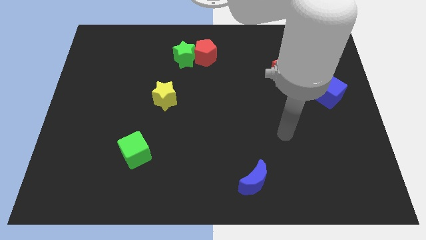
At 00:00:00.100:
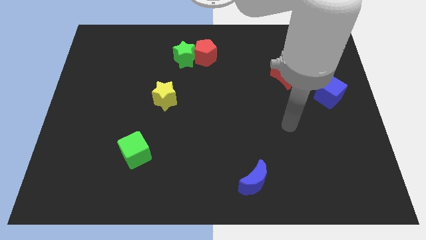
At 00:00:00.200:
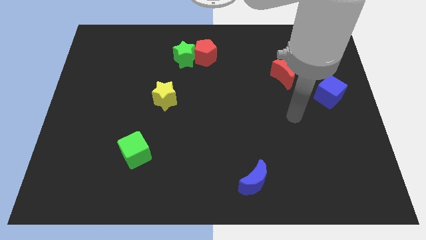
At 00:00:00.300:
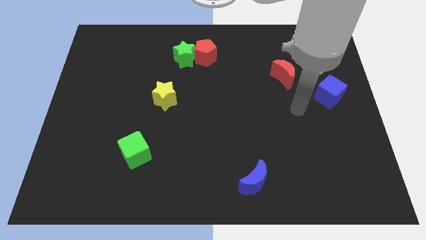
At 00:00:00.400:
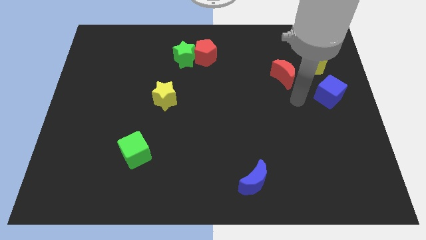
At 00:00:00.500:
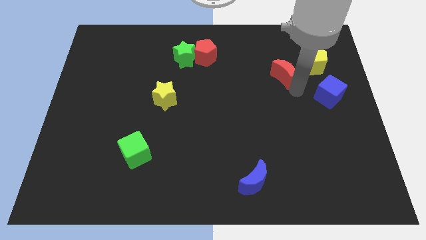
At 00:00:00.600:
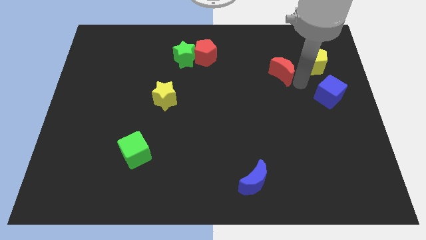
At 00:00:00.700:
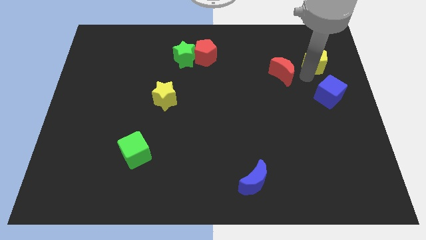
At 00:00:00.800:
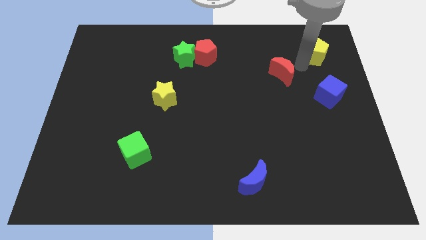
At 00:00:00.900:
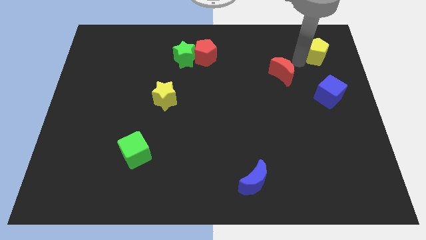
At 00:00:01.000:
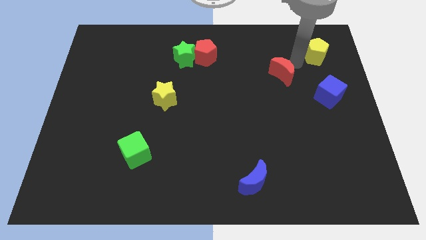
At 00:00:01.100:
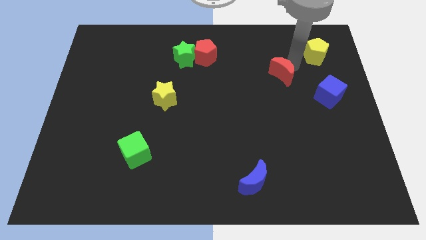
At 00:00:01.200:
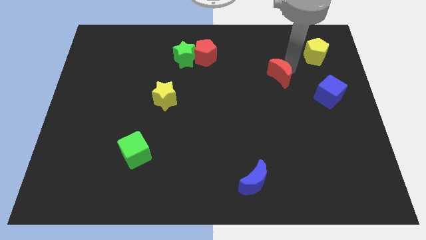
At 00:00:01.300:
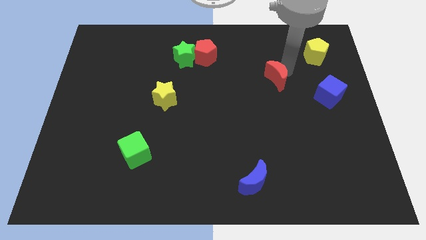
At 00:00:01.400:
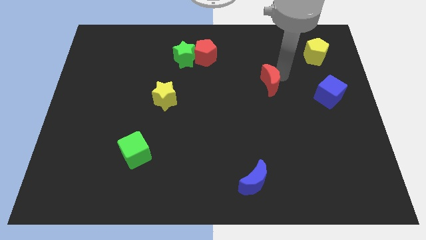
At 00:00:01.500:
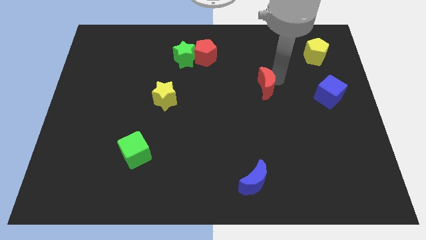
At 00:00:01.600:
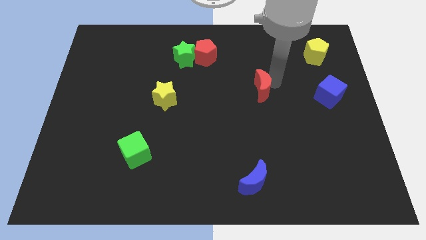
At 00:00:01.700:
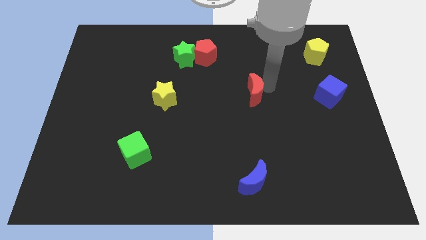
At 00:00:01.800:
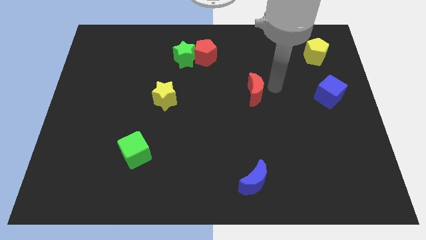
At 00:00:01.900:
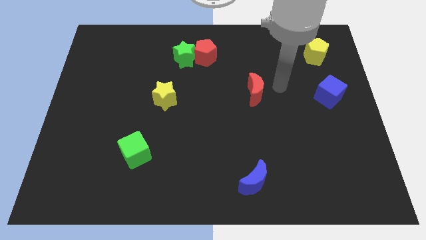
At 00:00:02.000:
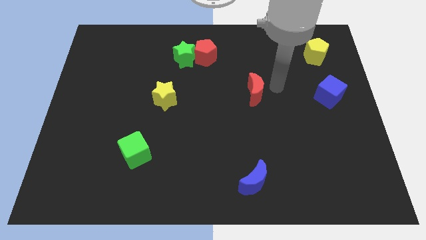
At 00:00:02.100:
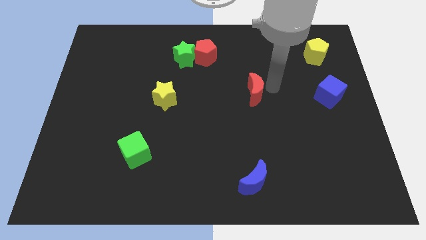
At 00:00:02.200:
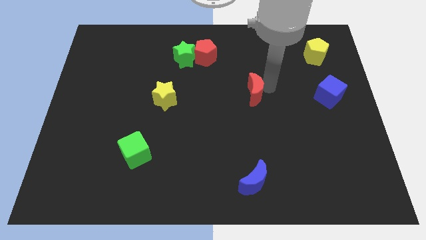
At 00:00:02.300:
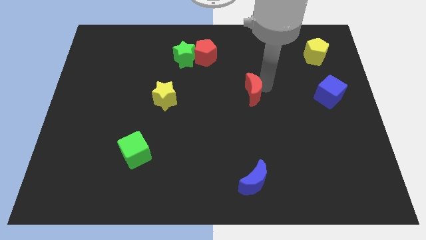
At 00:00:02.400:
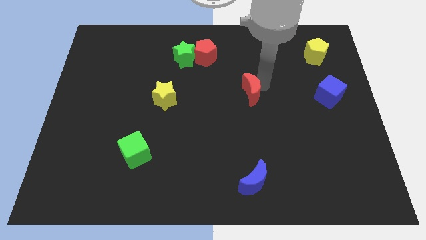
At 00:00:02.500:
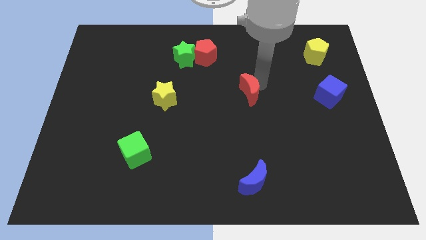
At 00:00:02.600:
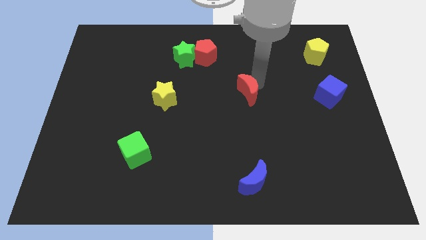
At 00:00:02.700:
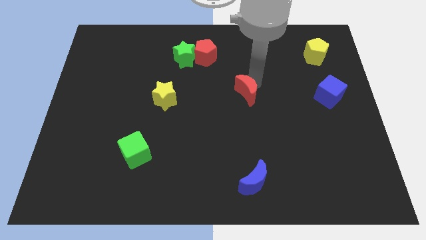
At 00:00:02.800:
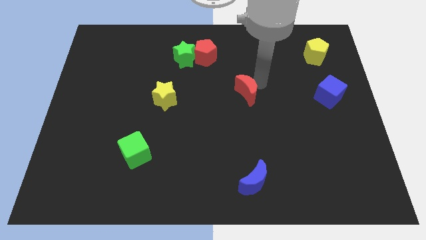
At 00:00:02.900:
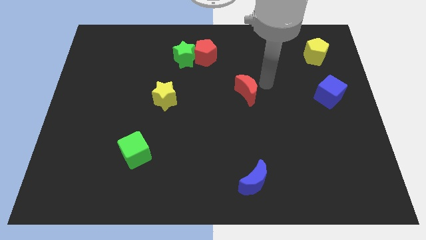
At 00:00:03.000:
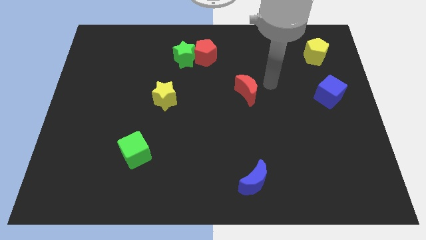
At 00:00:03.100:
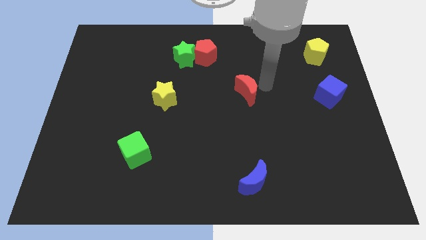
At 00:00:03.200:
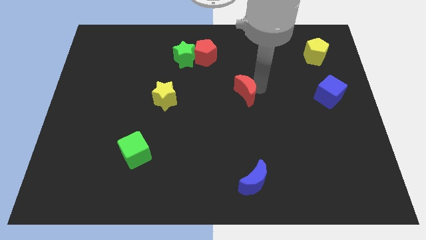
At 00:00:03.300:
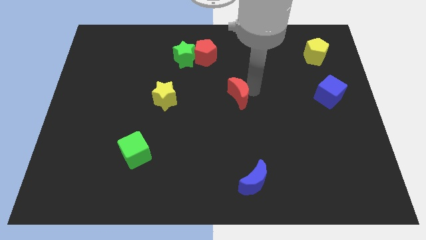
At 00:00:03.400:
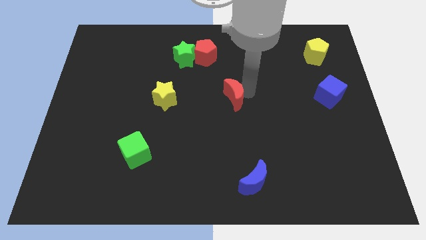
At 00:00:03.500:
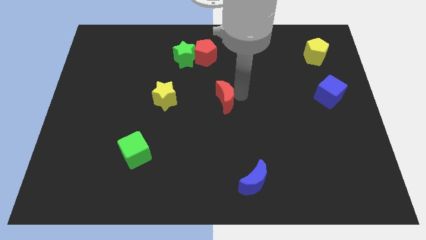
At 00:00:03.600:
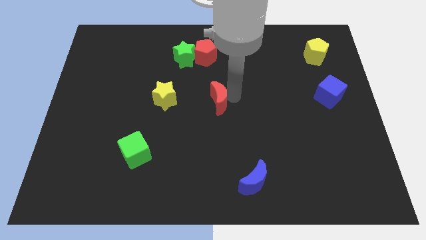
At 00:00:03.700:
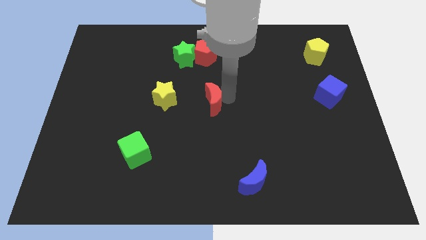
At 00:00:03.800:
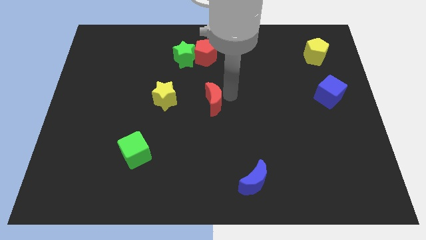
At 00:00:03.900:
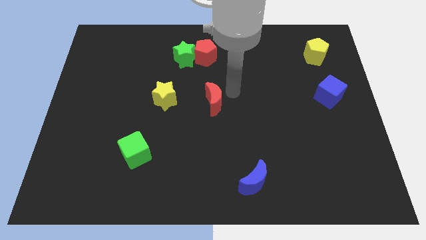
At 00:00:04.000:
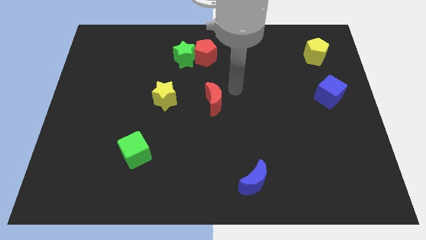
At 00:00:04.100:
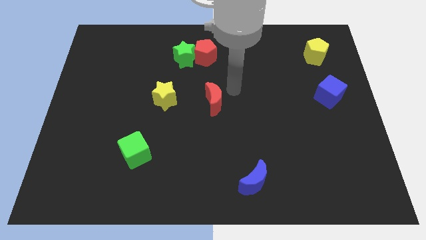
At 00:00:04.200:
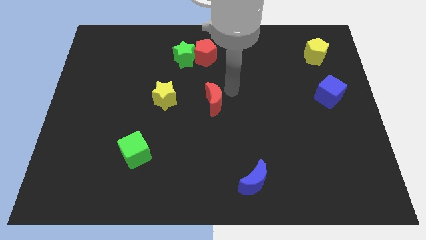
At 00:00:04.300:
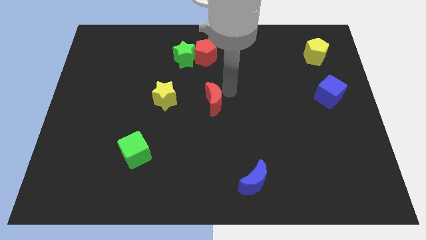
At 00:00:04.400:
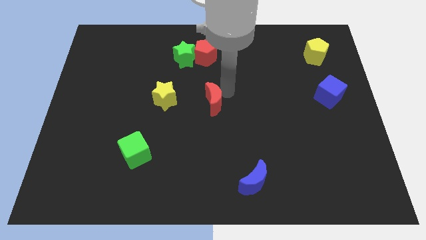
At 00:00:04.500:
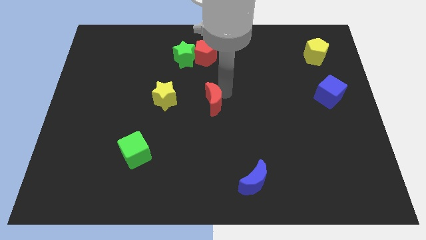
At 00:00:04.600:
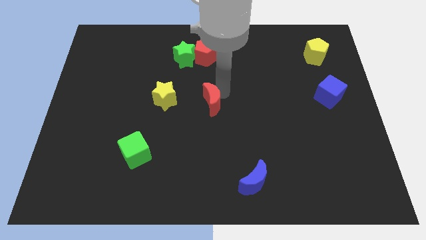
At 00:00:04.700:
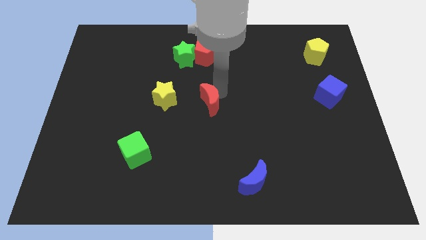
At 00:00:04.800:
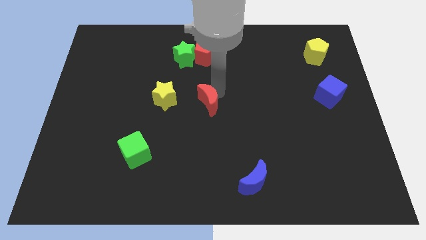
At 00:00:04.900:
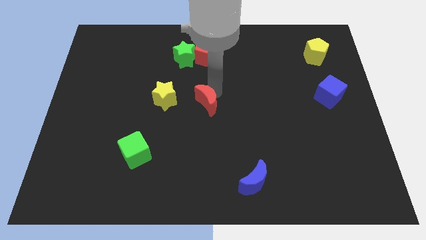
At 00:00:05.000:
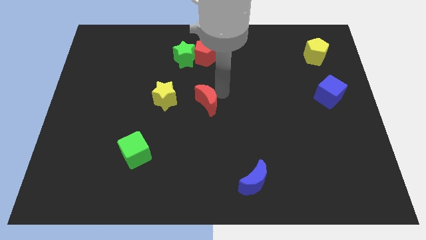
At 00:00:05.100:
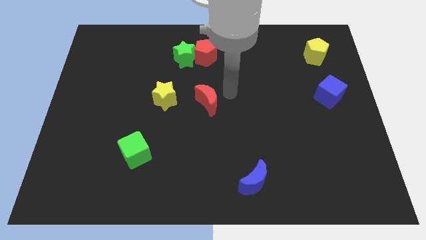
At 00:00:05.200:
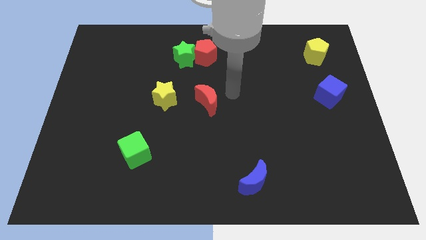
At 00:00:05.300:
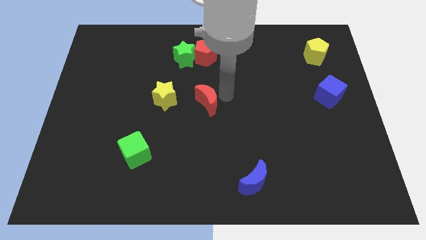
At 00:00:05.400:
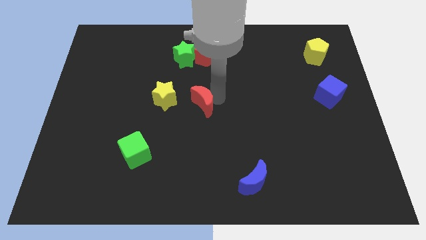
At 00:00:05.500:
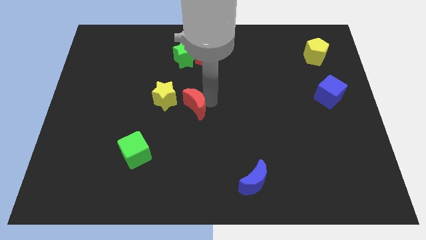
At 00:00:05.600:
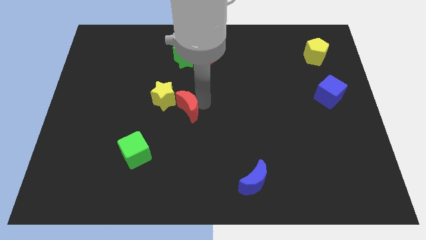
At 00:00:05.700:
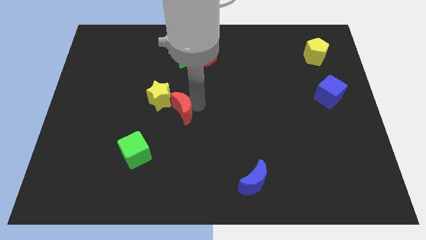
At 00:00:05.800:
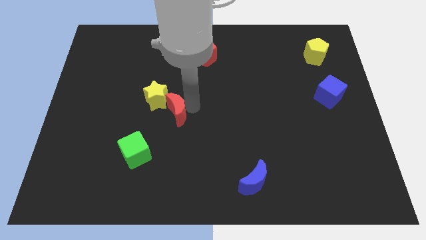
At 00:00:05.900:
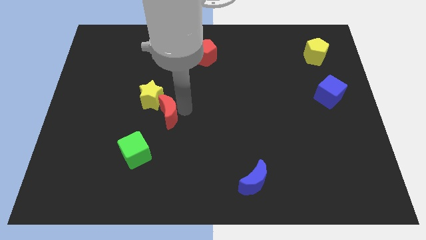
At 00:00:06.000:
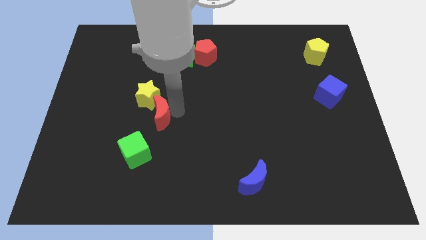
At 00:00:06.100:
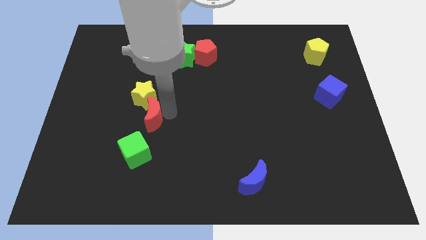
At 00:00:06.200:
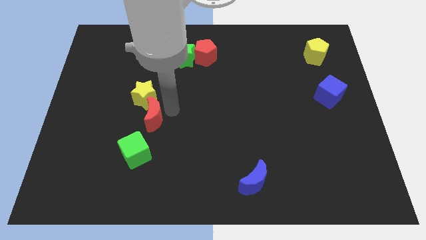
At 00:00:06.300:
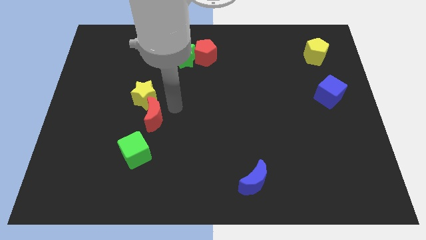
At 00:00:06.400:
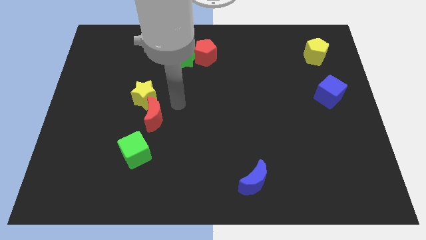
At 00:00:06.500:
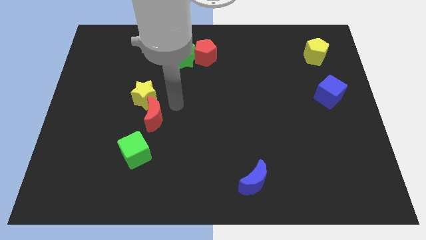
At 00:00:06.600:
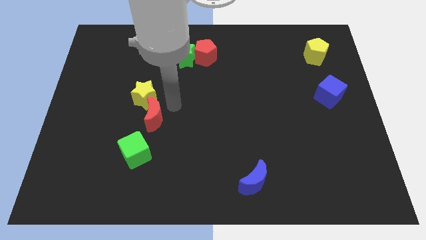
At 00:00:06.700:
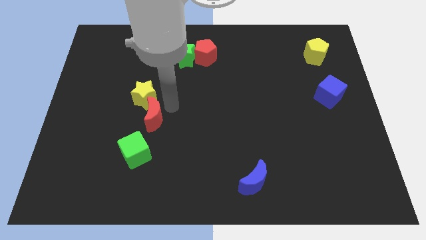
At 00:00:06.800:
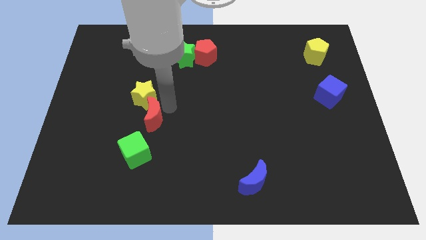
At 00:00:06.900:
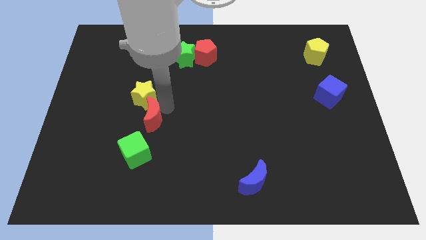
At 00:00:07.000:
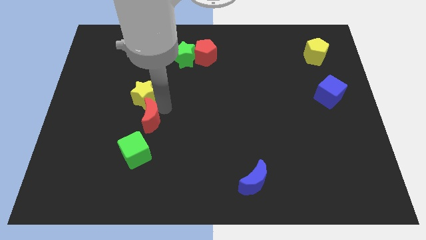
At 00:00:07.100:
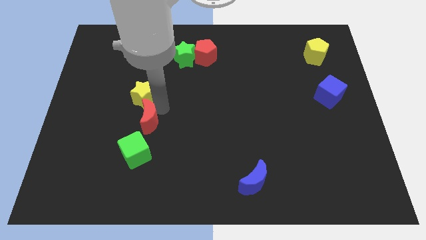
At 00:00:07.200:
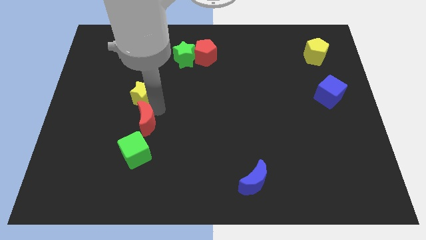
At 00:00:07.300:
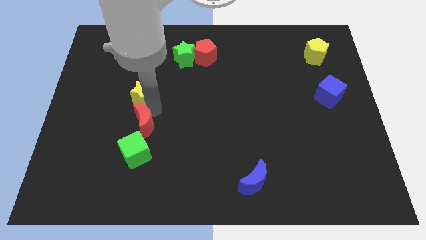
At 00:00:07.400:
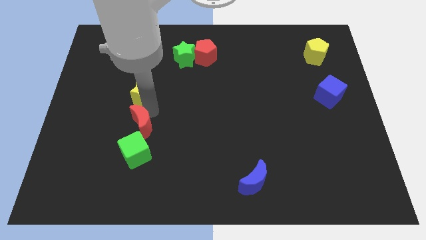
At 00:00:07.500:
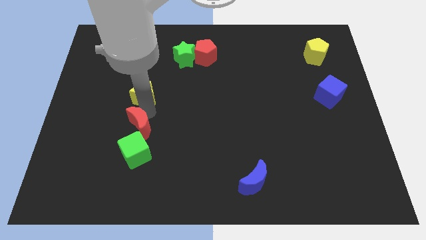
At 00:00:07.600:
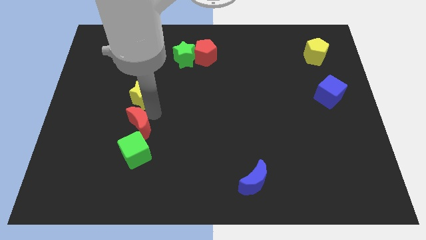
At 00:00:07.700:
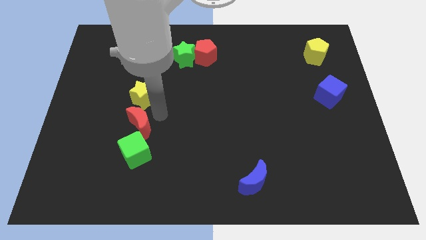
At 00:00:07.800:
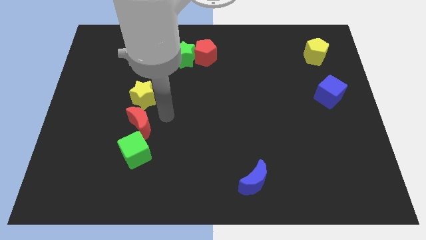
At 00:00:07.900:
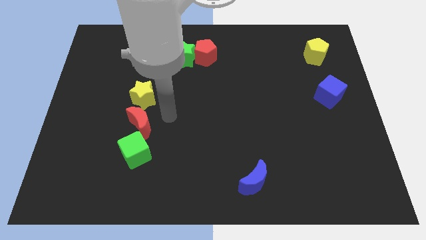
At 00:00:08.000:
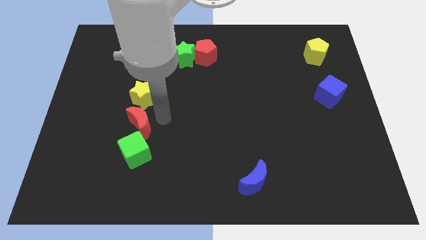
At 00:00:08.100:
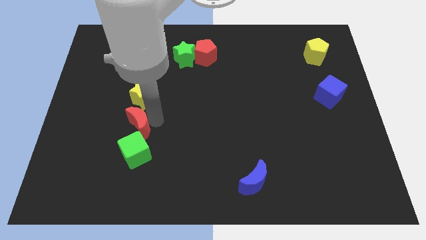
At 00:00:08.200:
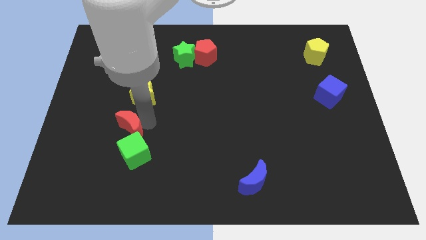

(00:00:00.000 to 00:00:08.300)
move the red moon to the top left side of the green cube

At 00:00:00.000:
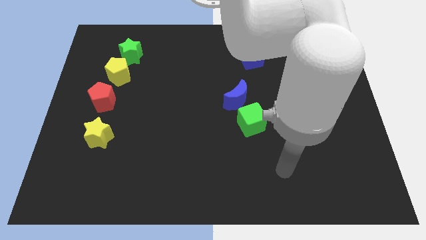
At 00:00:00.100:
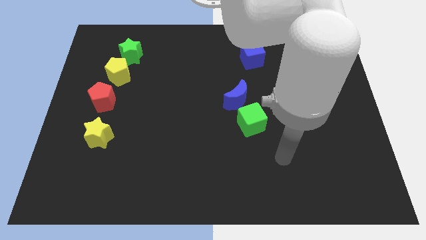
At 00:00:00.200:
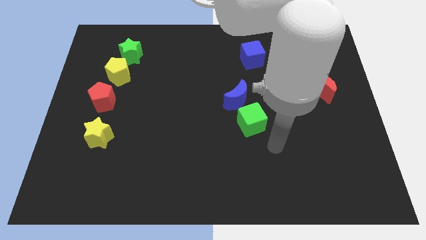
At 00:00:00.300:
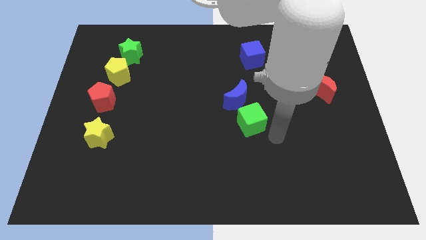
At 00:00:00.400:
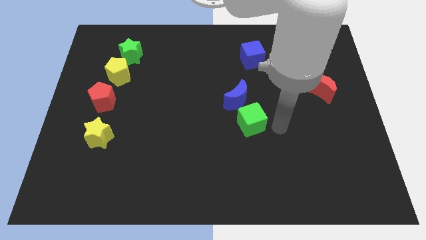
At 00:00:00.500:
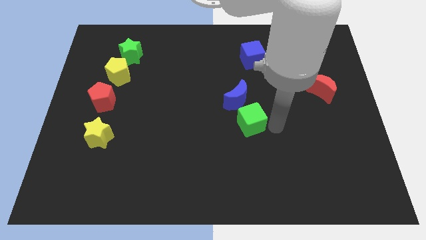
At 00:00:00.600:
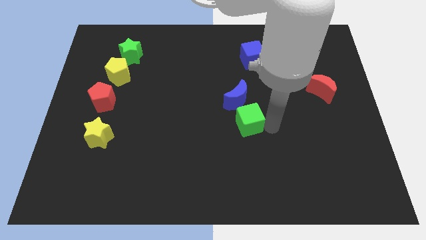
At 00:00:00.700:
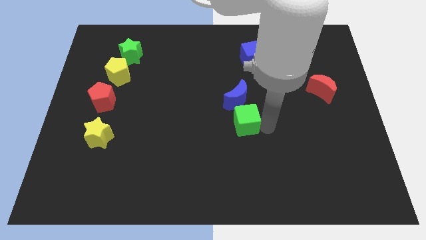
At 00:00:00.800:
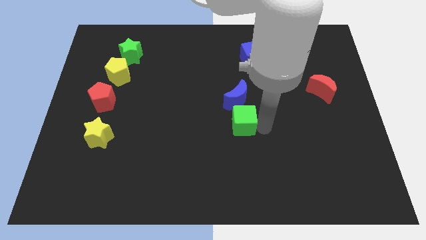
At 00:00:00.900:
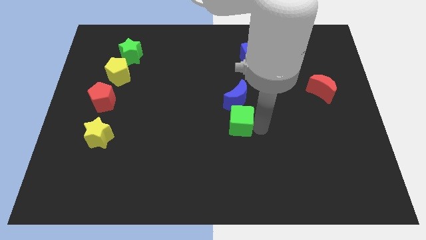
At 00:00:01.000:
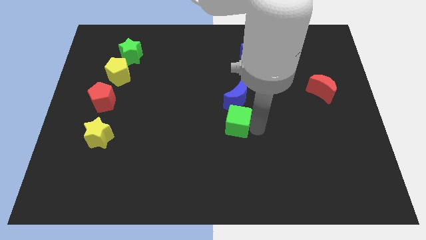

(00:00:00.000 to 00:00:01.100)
slide the green cube to the bottom left of the blue moon
